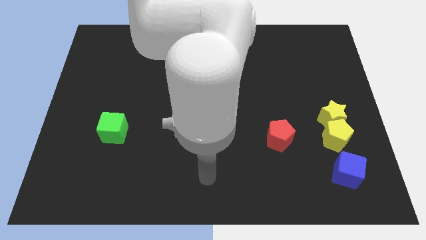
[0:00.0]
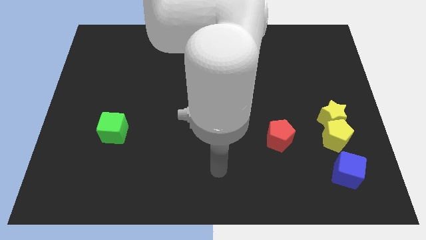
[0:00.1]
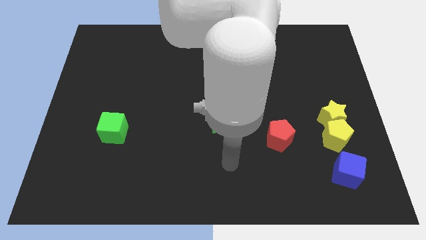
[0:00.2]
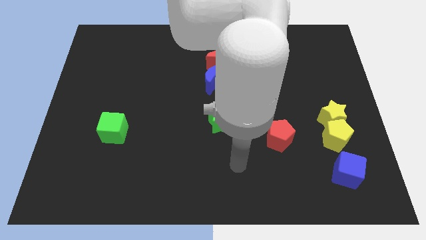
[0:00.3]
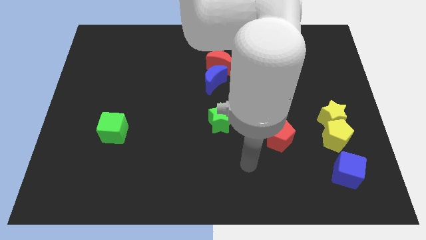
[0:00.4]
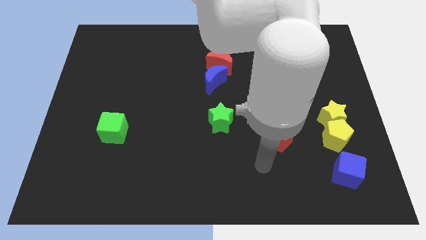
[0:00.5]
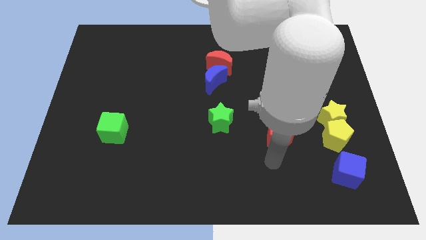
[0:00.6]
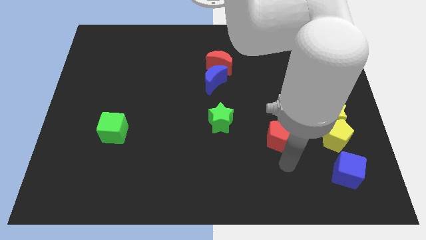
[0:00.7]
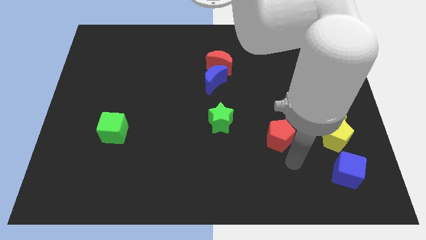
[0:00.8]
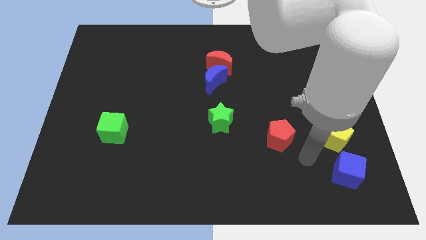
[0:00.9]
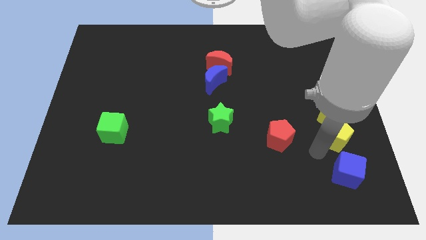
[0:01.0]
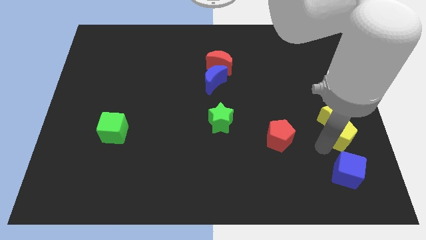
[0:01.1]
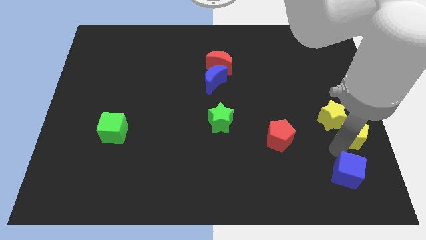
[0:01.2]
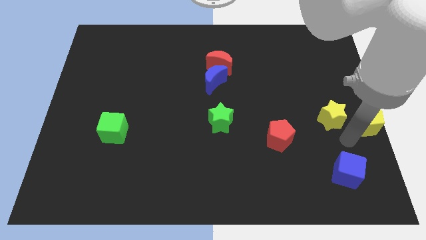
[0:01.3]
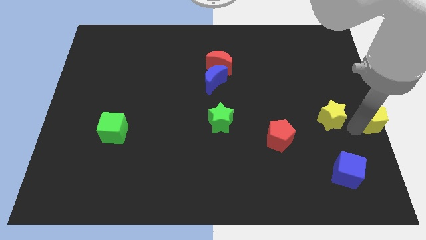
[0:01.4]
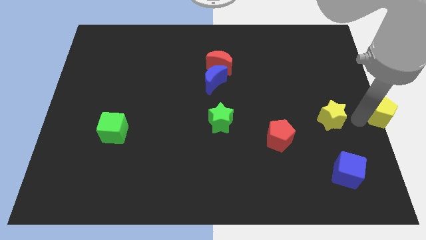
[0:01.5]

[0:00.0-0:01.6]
move the yellow star away from the yellow pentagon

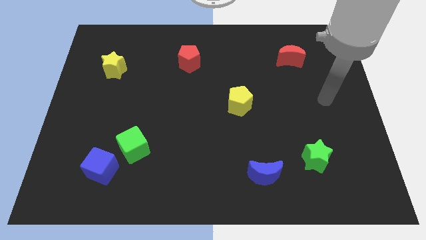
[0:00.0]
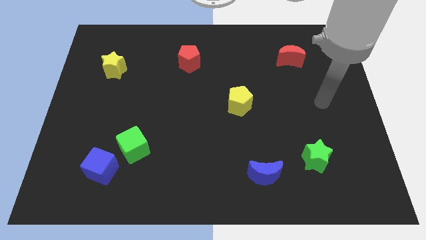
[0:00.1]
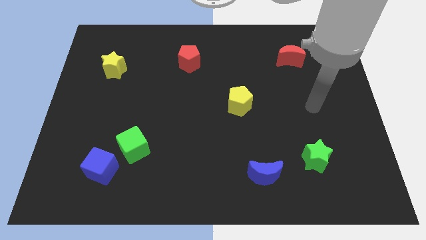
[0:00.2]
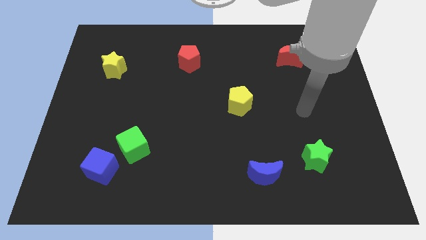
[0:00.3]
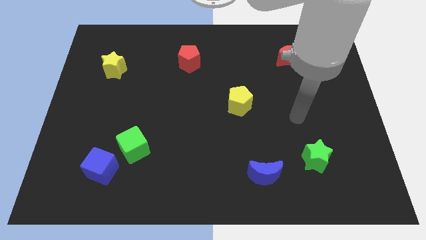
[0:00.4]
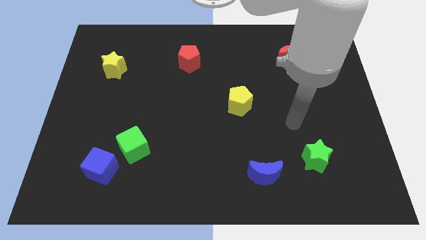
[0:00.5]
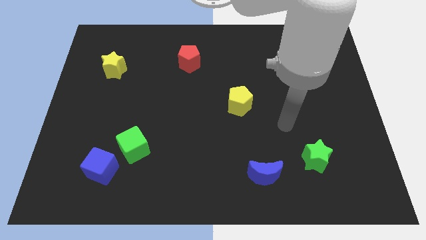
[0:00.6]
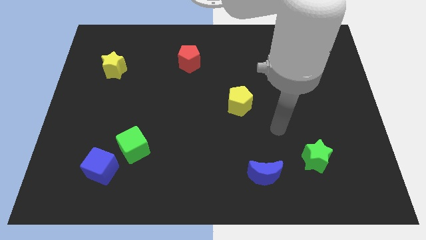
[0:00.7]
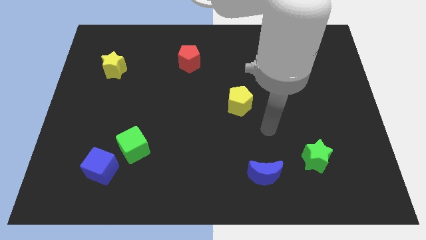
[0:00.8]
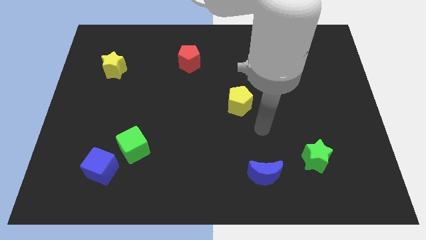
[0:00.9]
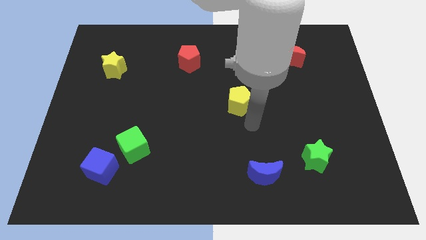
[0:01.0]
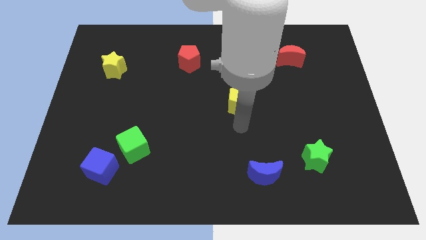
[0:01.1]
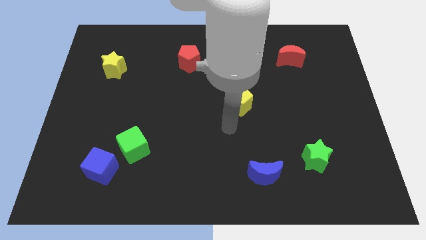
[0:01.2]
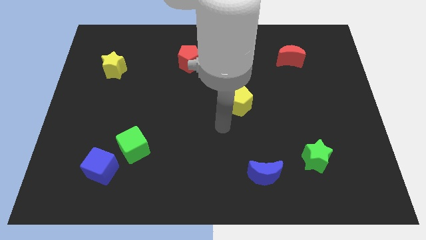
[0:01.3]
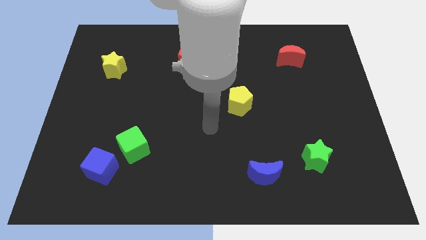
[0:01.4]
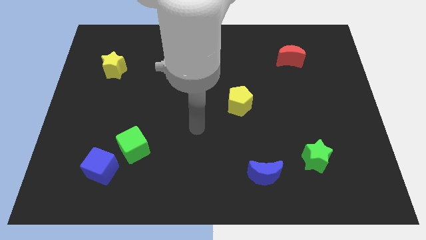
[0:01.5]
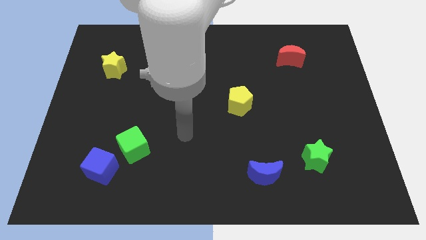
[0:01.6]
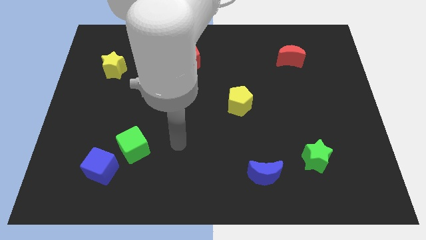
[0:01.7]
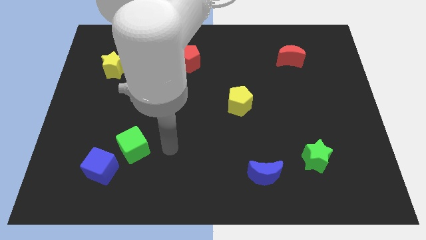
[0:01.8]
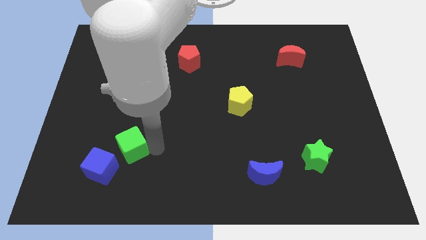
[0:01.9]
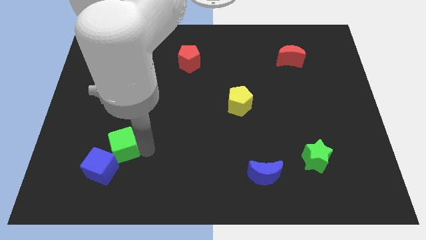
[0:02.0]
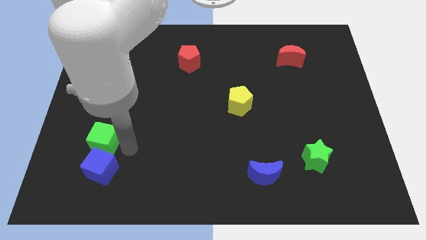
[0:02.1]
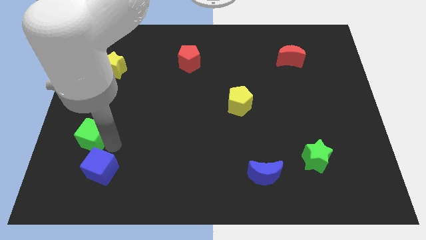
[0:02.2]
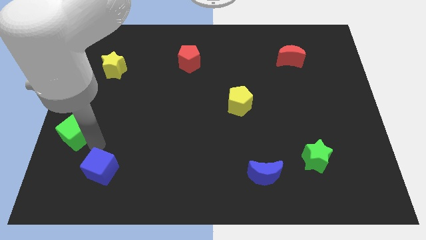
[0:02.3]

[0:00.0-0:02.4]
move the blue cube away from the green cube

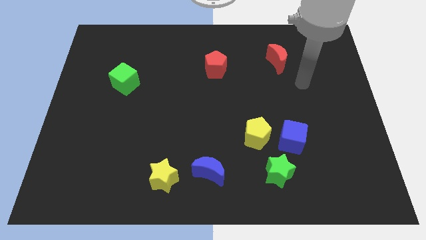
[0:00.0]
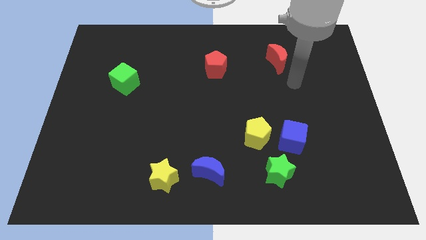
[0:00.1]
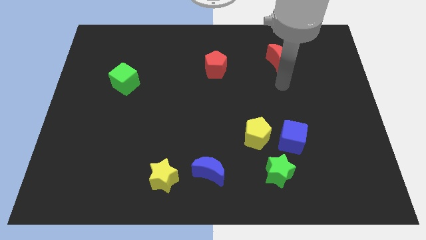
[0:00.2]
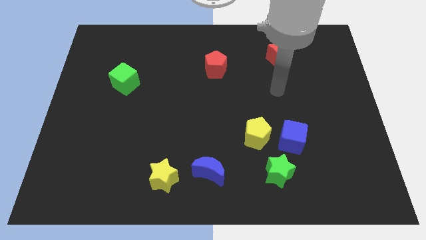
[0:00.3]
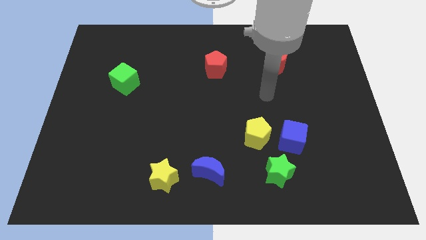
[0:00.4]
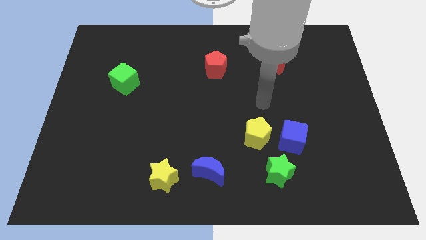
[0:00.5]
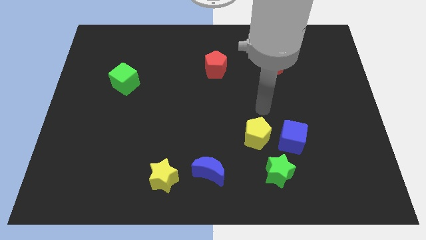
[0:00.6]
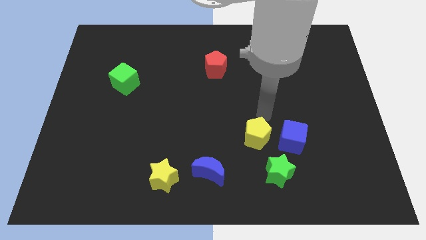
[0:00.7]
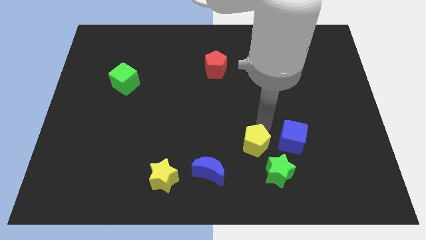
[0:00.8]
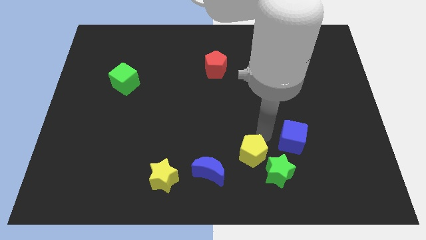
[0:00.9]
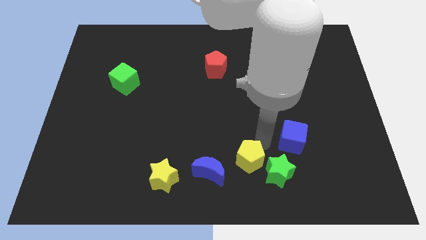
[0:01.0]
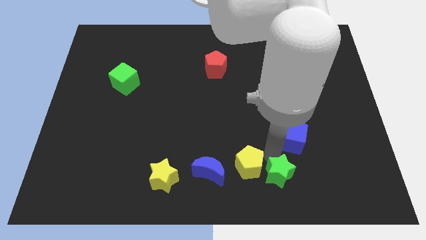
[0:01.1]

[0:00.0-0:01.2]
separate the blue cube from the yellow pentagon and green star

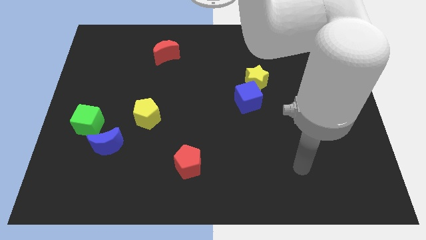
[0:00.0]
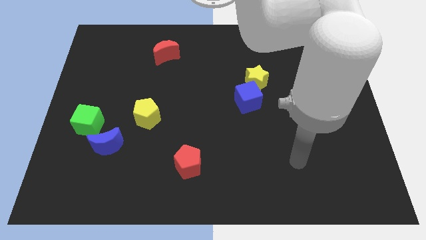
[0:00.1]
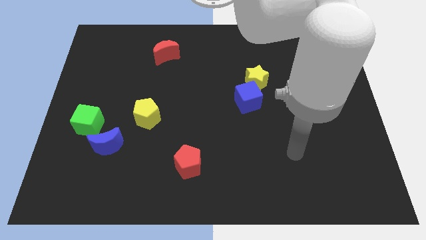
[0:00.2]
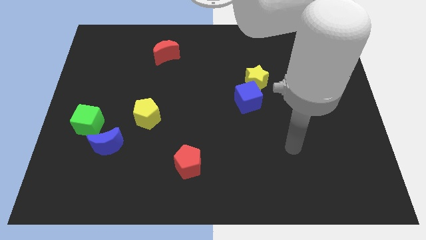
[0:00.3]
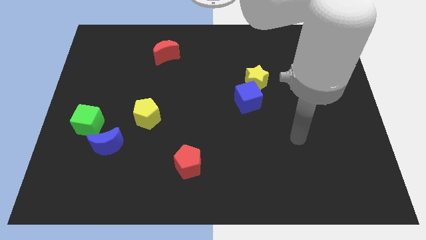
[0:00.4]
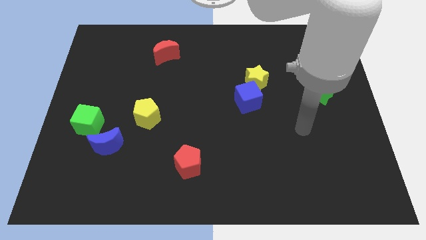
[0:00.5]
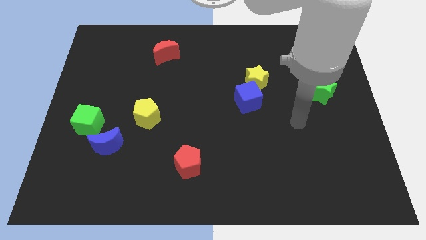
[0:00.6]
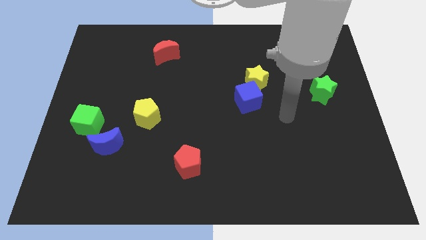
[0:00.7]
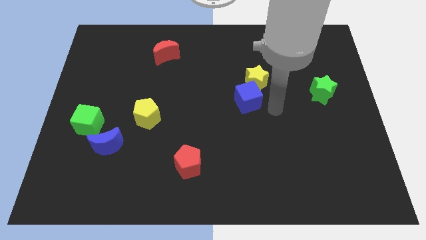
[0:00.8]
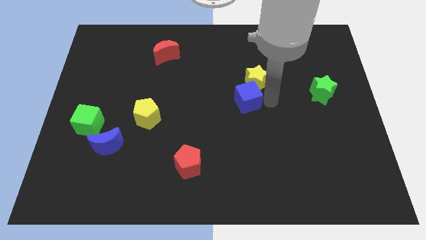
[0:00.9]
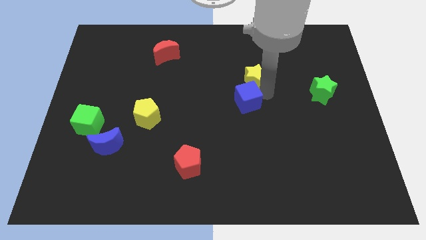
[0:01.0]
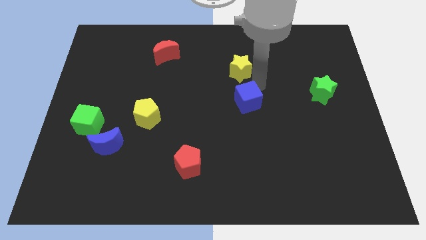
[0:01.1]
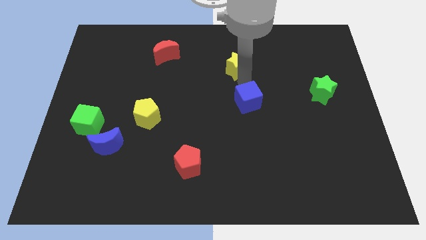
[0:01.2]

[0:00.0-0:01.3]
separate the blue cube from the yellow star

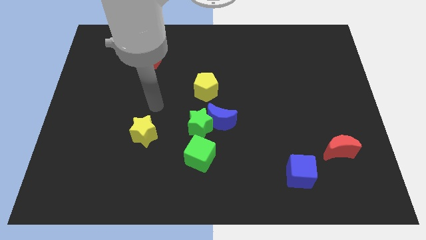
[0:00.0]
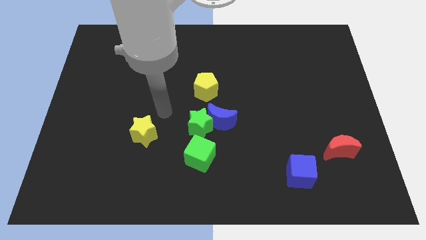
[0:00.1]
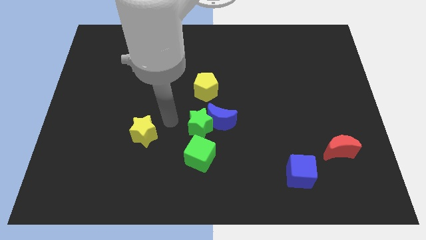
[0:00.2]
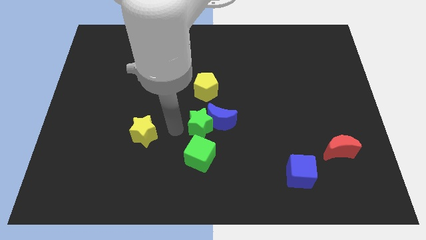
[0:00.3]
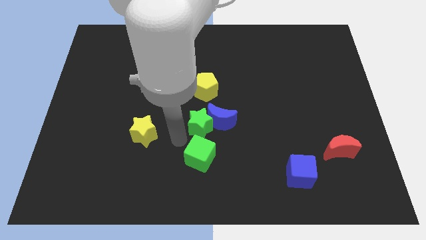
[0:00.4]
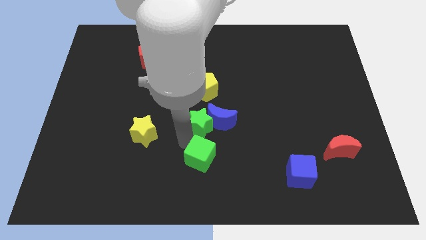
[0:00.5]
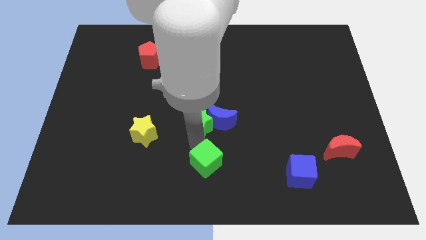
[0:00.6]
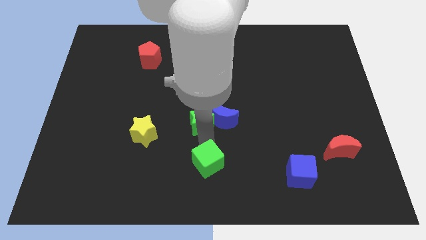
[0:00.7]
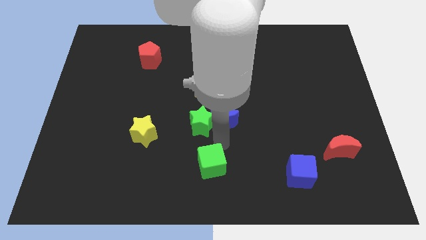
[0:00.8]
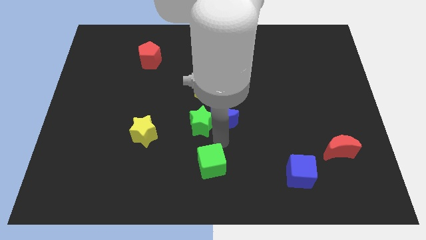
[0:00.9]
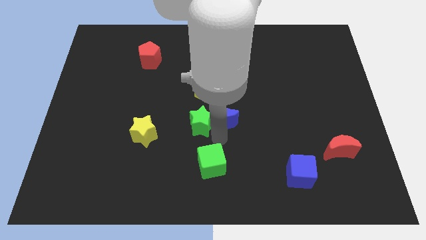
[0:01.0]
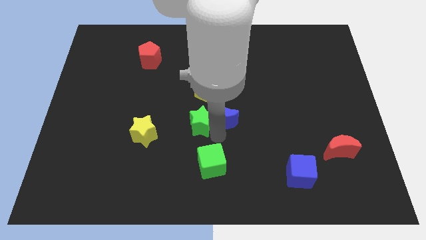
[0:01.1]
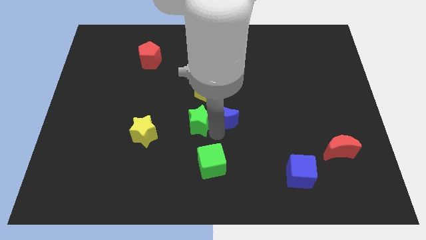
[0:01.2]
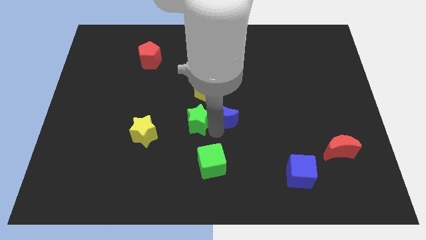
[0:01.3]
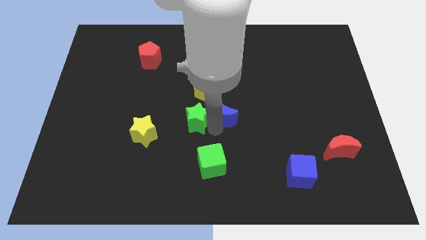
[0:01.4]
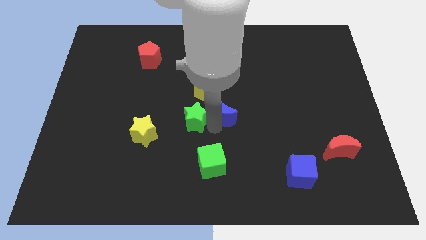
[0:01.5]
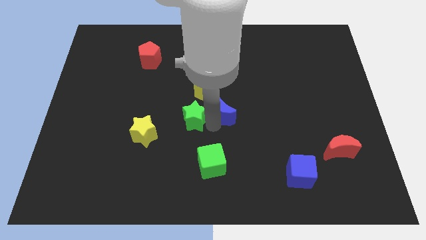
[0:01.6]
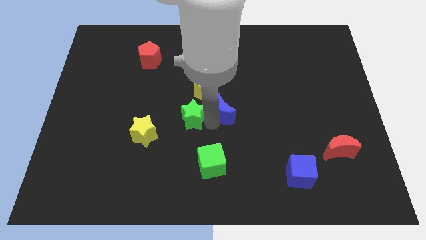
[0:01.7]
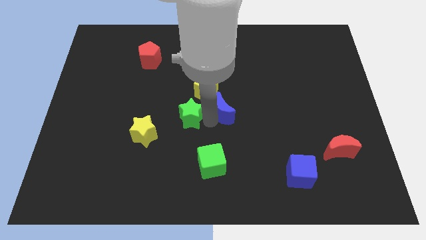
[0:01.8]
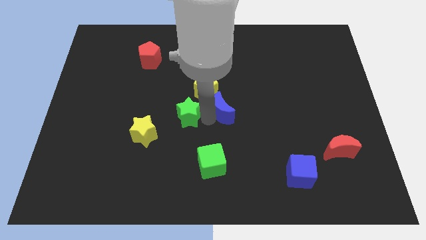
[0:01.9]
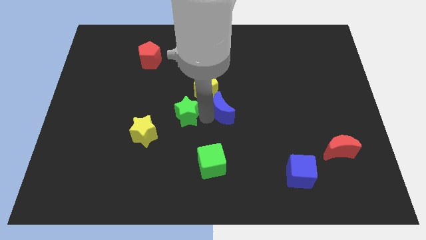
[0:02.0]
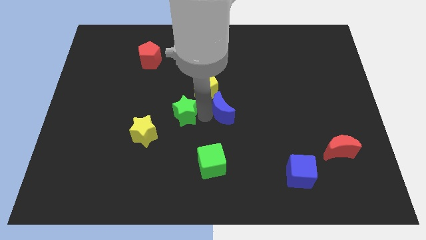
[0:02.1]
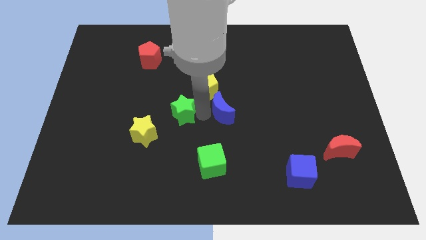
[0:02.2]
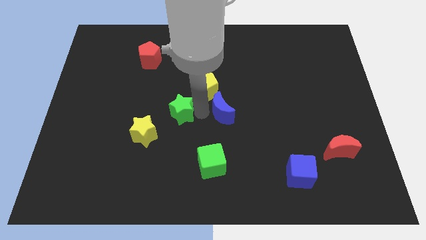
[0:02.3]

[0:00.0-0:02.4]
move the green star away from the blue moon and green cube

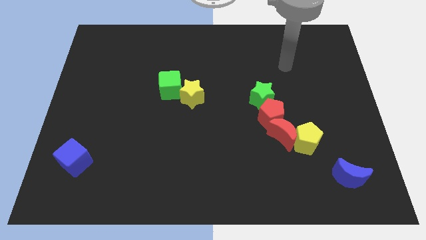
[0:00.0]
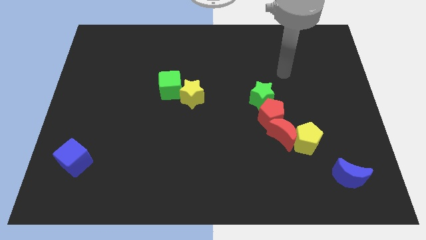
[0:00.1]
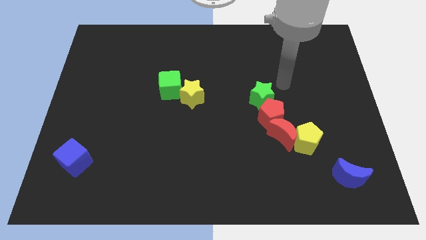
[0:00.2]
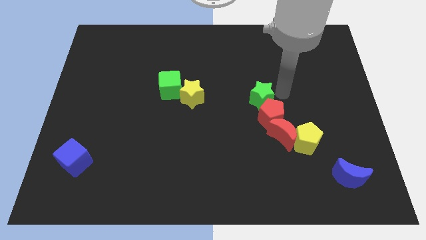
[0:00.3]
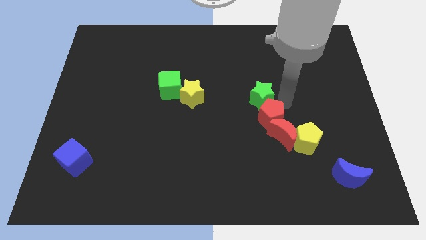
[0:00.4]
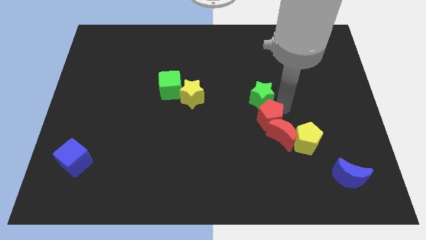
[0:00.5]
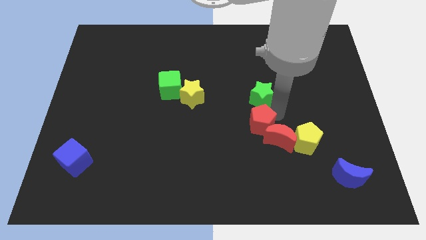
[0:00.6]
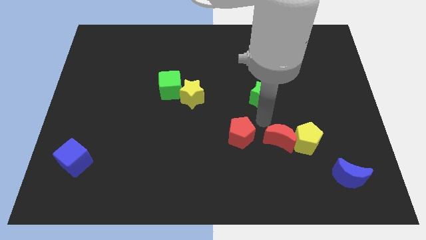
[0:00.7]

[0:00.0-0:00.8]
separate the green star from the red pentagon
